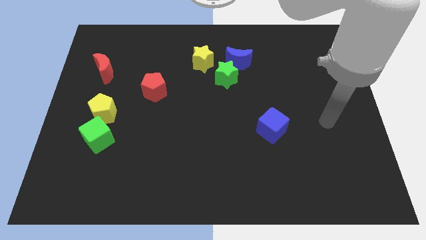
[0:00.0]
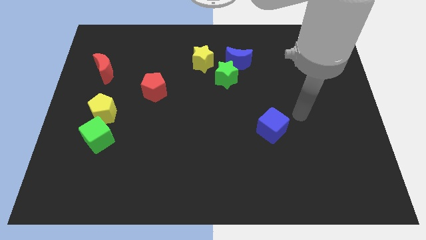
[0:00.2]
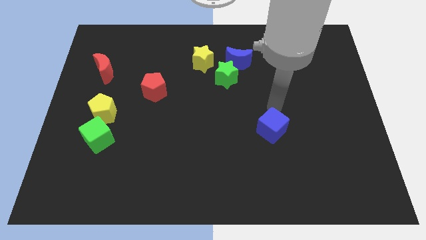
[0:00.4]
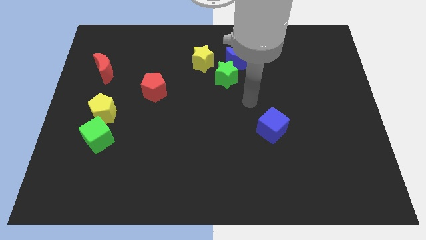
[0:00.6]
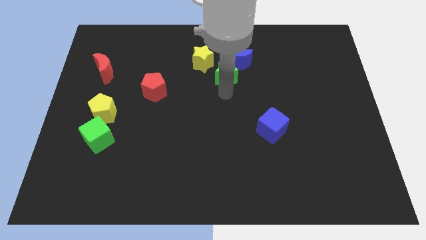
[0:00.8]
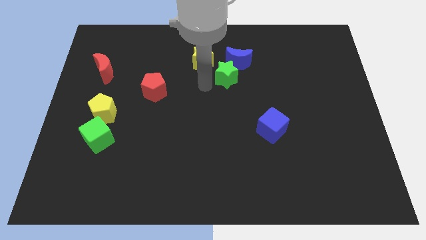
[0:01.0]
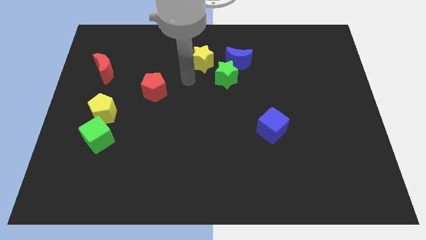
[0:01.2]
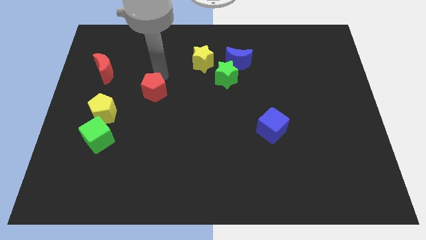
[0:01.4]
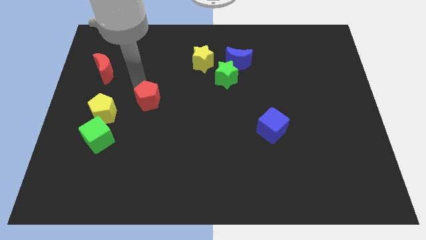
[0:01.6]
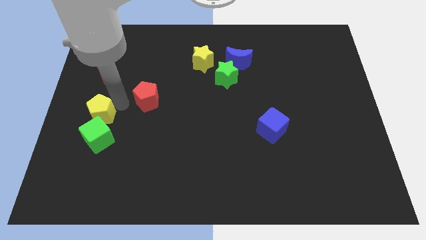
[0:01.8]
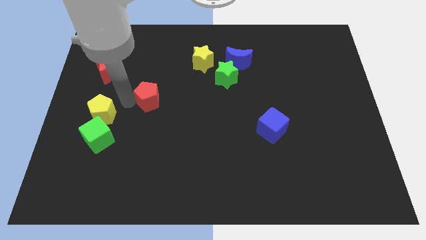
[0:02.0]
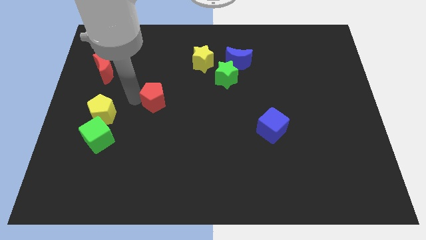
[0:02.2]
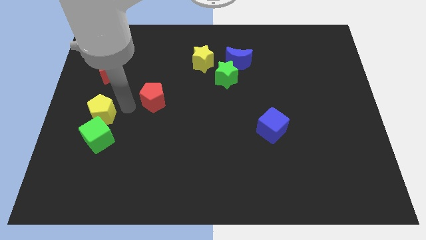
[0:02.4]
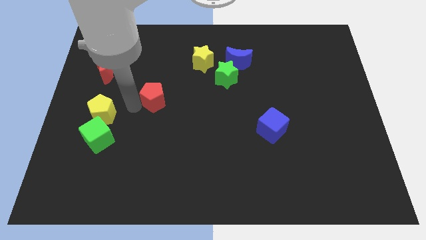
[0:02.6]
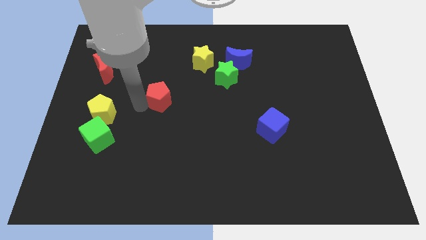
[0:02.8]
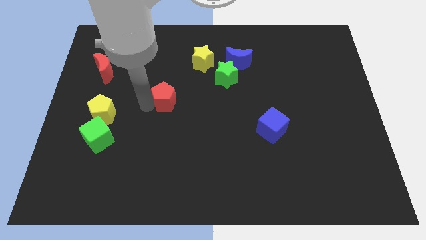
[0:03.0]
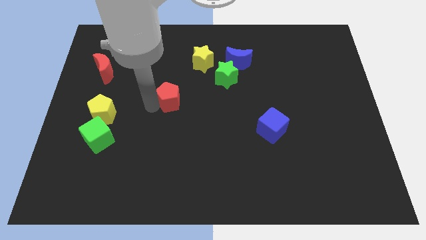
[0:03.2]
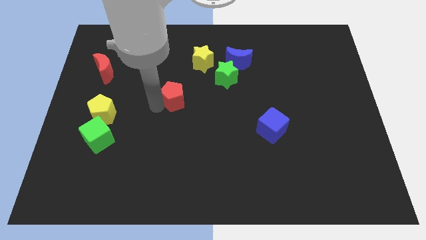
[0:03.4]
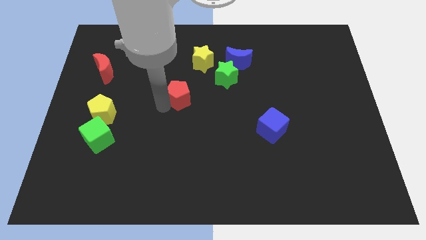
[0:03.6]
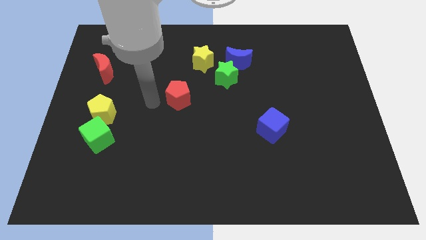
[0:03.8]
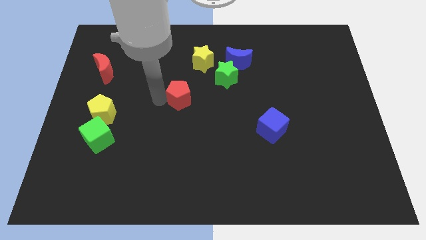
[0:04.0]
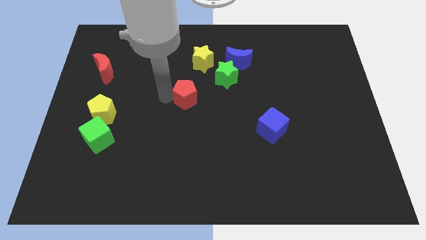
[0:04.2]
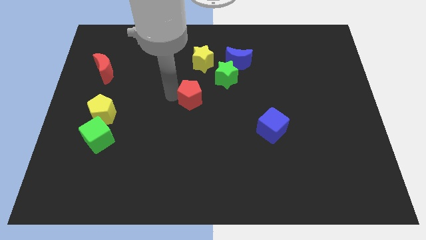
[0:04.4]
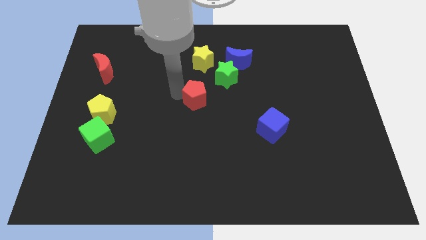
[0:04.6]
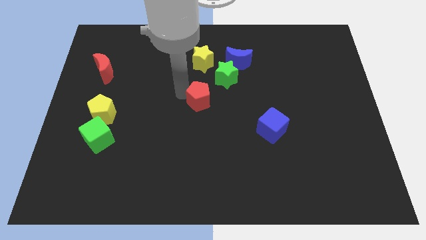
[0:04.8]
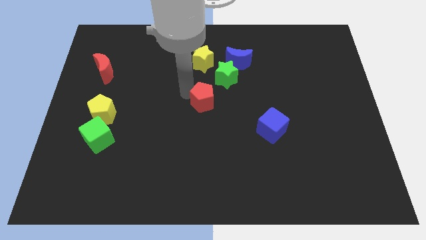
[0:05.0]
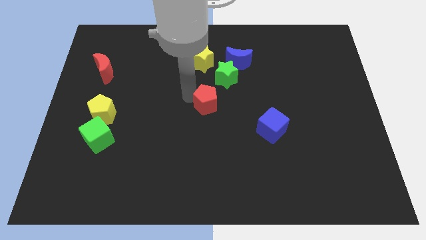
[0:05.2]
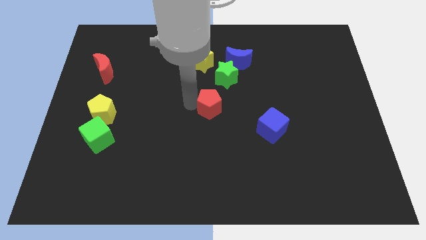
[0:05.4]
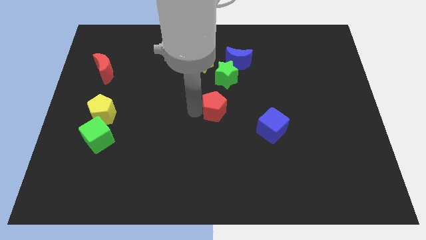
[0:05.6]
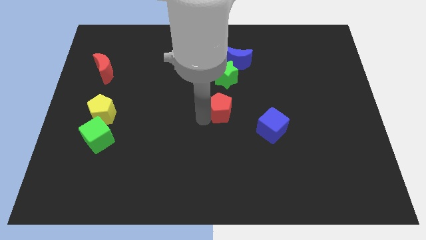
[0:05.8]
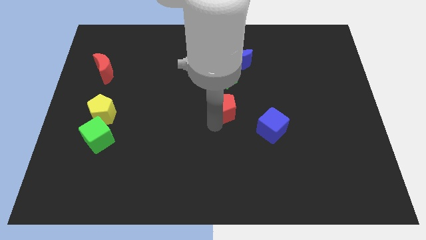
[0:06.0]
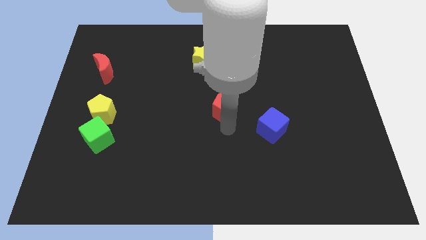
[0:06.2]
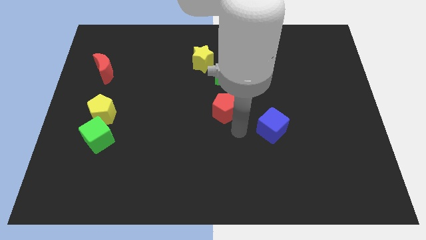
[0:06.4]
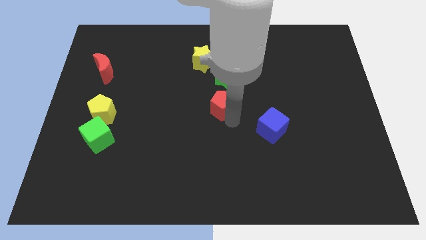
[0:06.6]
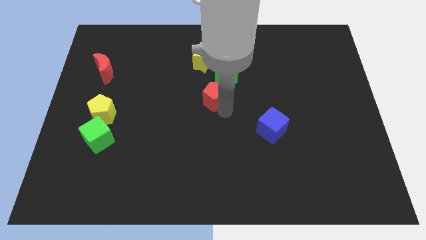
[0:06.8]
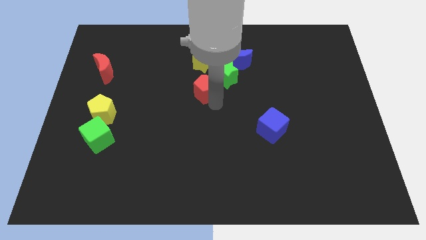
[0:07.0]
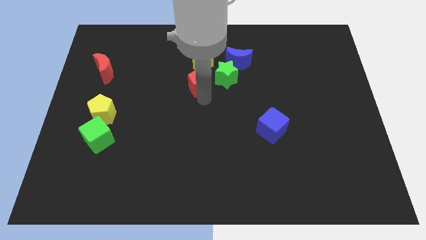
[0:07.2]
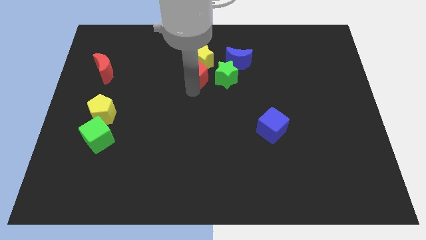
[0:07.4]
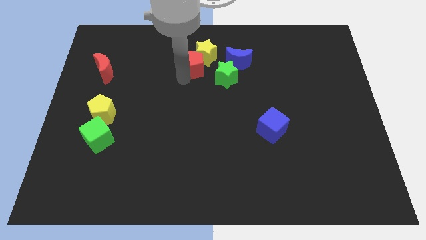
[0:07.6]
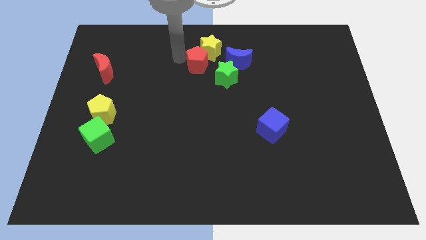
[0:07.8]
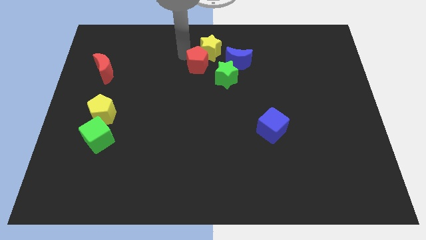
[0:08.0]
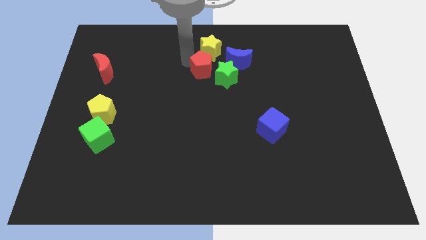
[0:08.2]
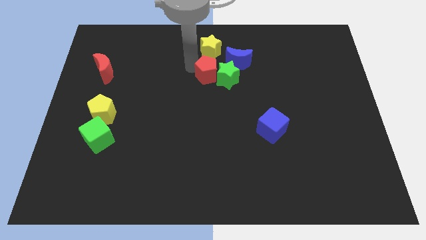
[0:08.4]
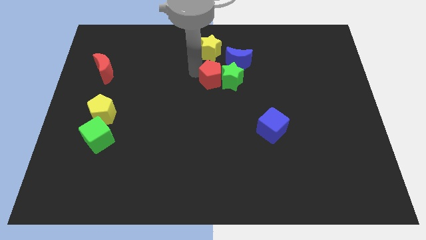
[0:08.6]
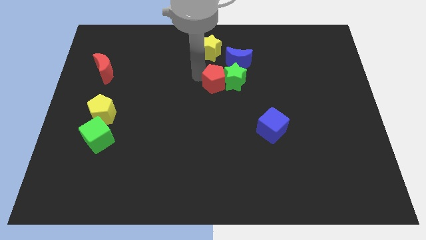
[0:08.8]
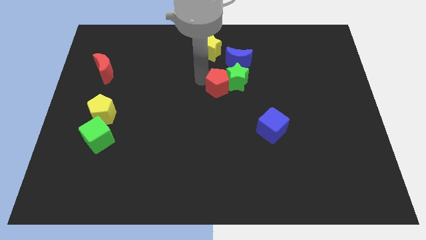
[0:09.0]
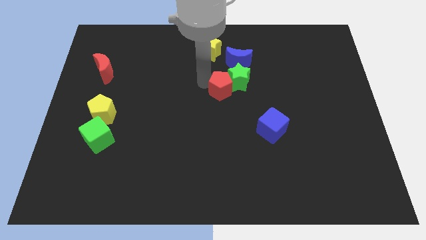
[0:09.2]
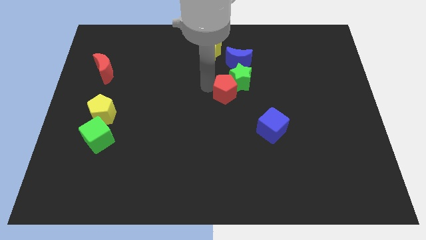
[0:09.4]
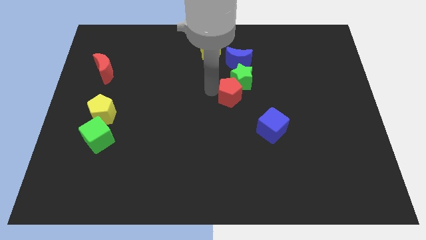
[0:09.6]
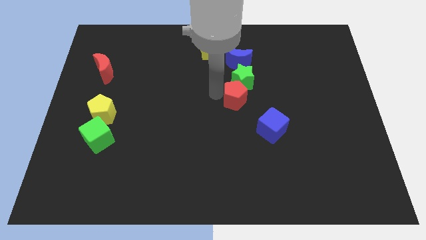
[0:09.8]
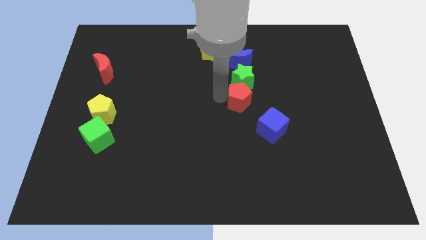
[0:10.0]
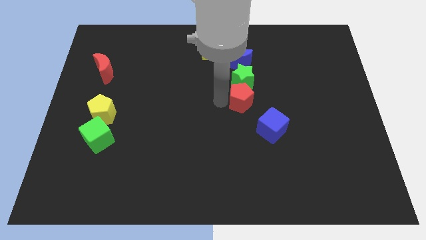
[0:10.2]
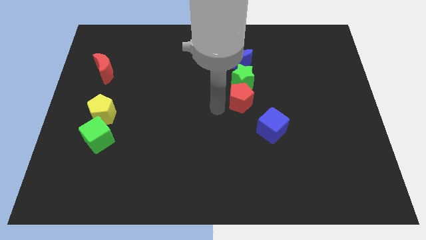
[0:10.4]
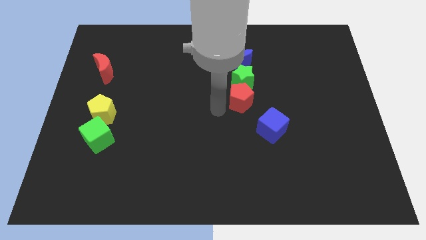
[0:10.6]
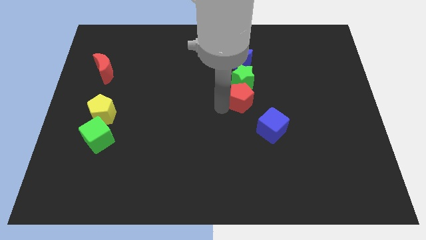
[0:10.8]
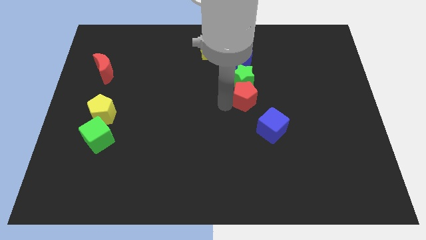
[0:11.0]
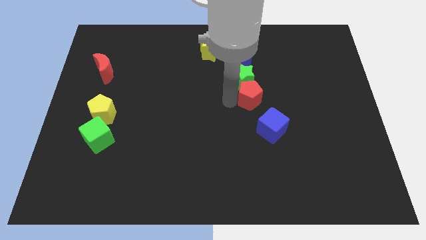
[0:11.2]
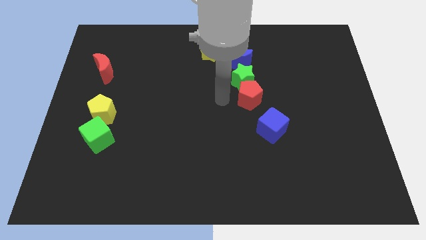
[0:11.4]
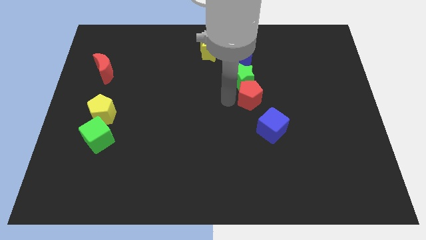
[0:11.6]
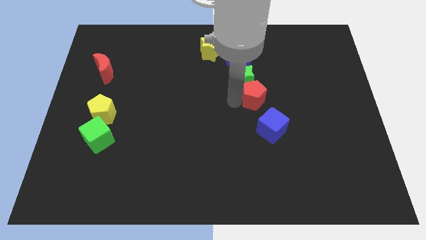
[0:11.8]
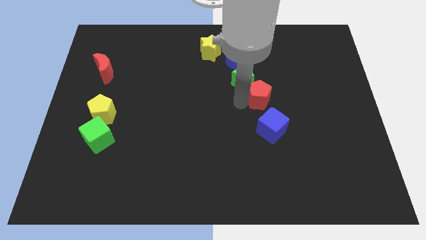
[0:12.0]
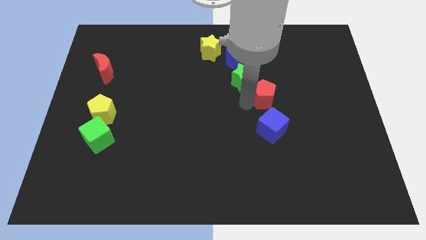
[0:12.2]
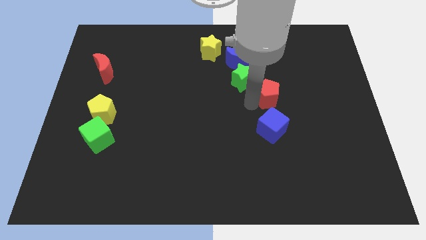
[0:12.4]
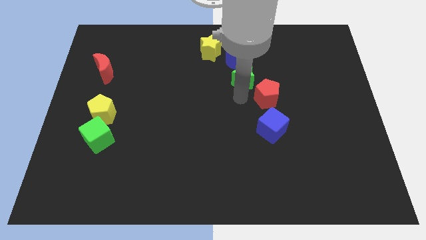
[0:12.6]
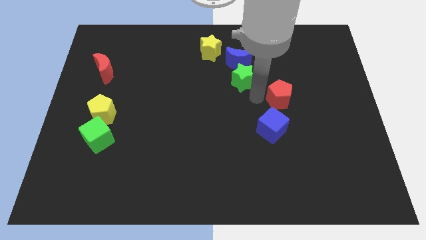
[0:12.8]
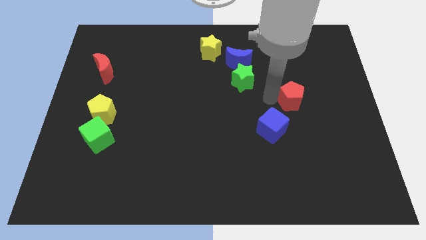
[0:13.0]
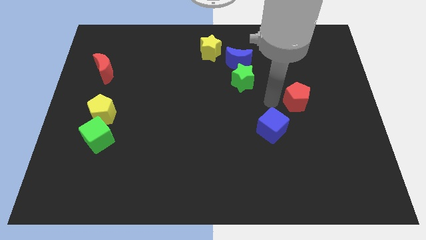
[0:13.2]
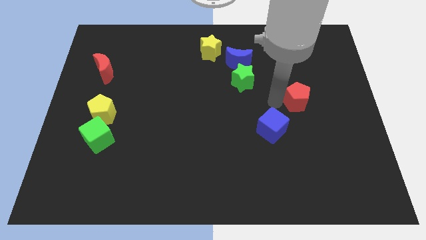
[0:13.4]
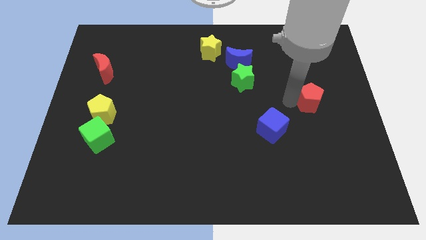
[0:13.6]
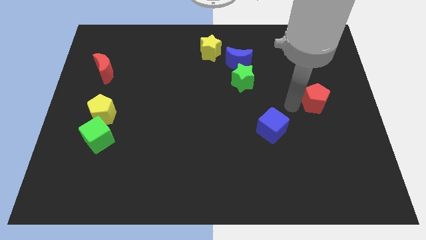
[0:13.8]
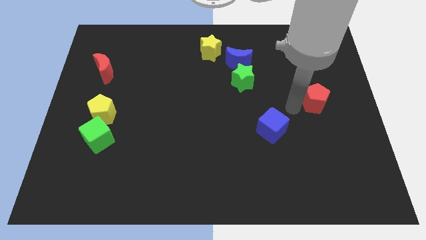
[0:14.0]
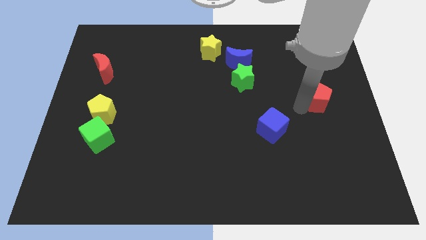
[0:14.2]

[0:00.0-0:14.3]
slide the red pentagon to the right side of the board
